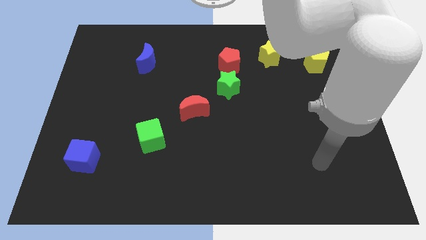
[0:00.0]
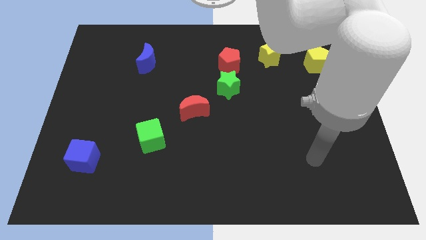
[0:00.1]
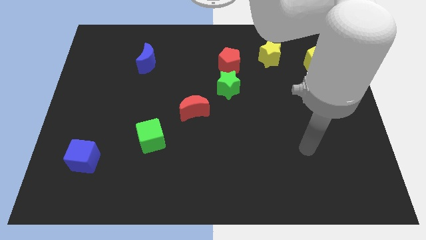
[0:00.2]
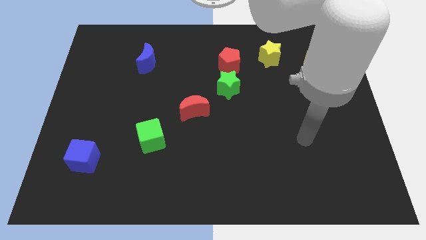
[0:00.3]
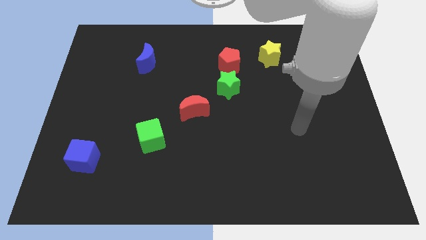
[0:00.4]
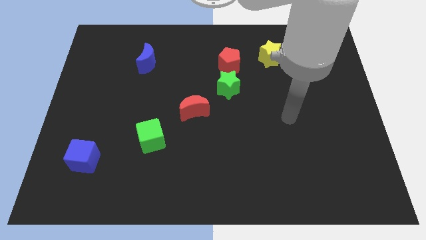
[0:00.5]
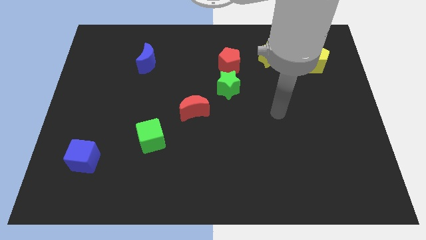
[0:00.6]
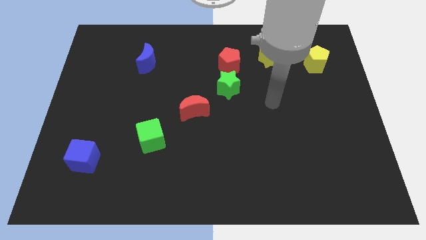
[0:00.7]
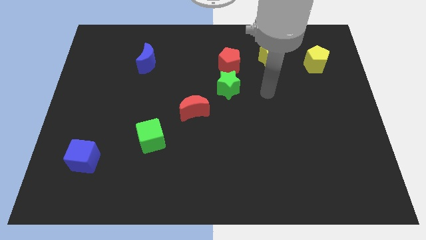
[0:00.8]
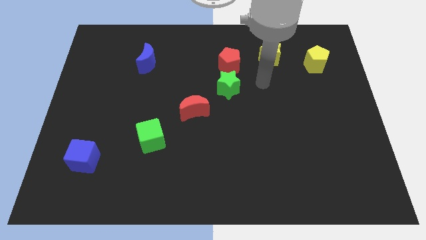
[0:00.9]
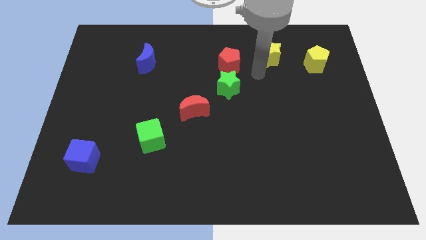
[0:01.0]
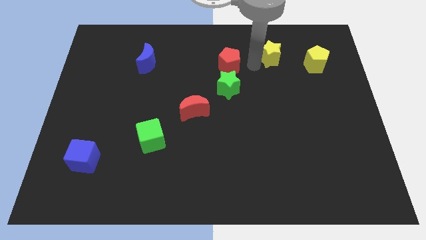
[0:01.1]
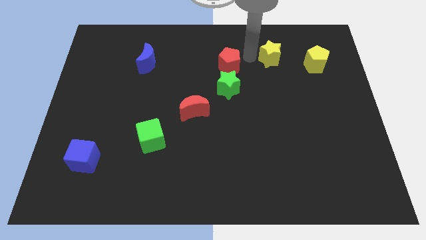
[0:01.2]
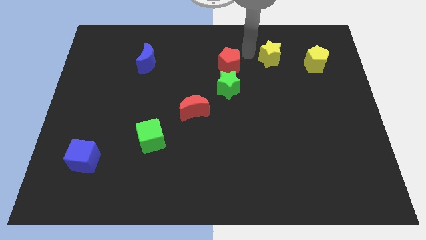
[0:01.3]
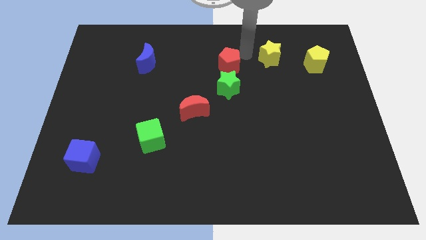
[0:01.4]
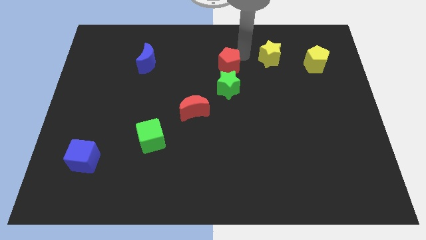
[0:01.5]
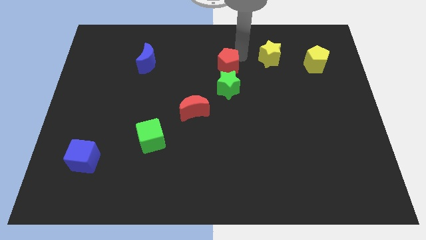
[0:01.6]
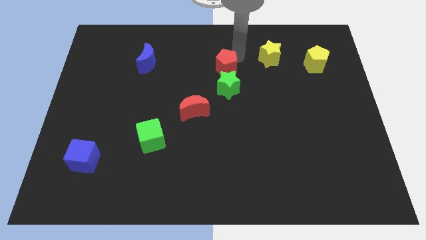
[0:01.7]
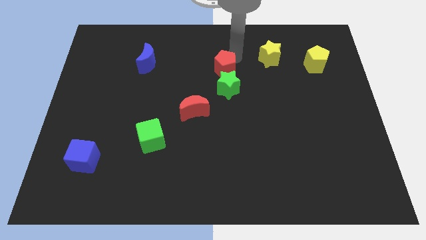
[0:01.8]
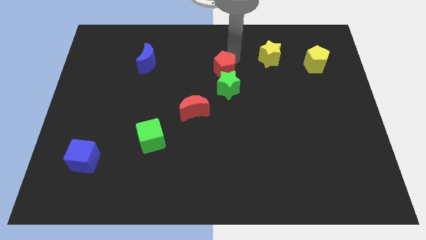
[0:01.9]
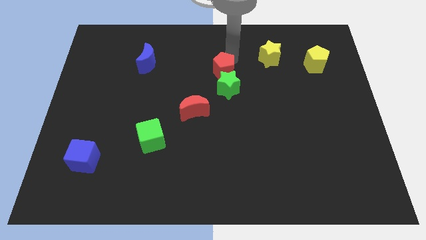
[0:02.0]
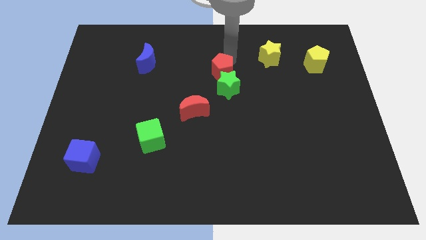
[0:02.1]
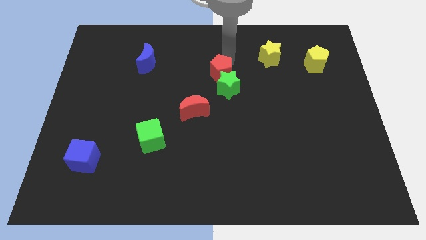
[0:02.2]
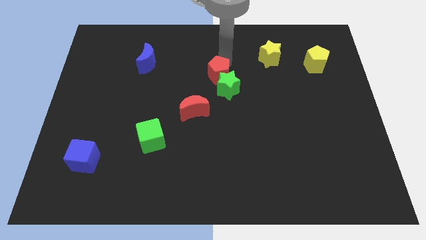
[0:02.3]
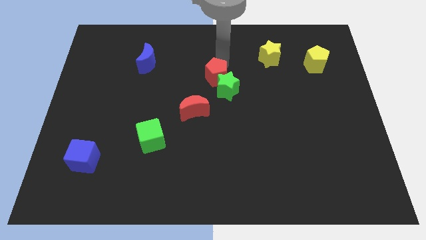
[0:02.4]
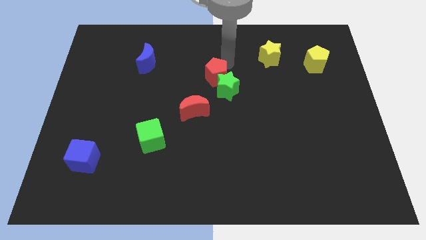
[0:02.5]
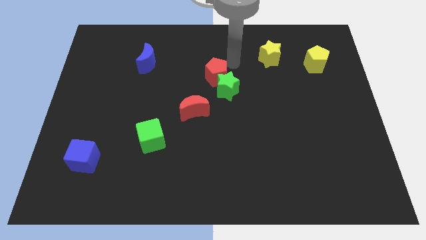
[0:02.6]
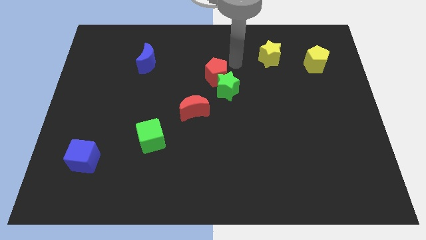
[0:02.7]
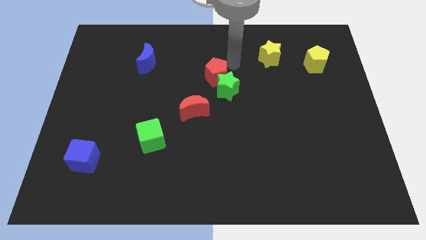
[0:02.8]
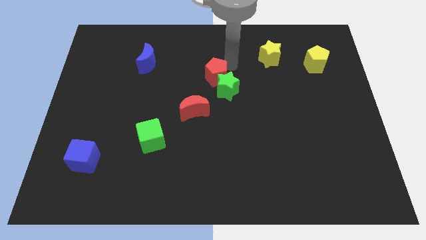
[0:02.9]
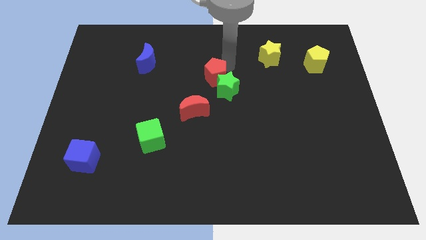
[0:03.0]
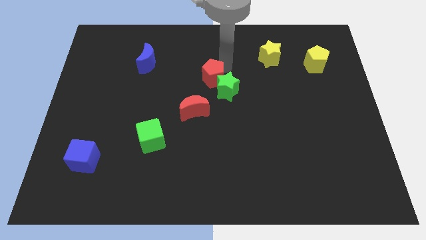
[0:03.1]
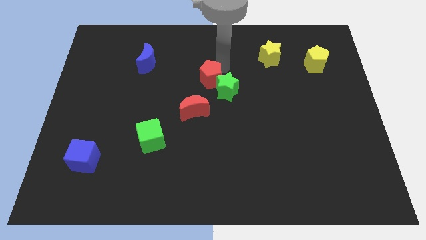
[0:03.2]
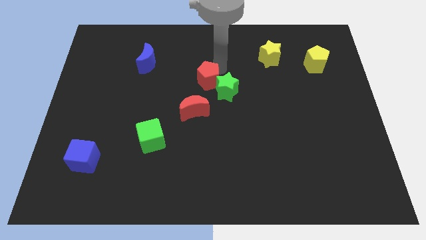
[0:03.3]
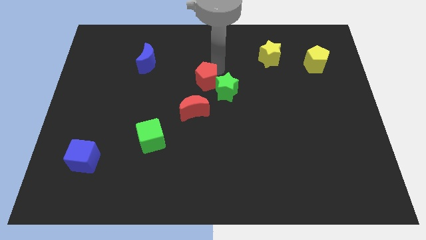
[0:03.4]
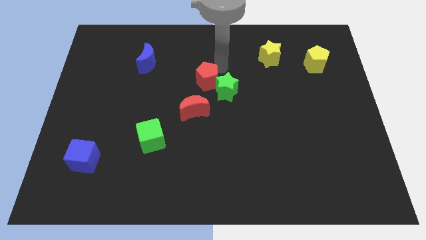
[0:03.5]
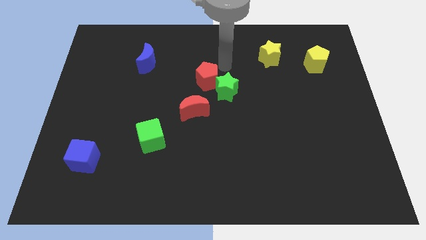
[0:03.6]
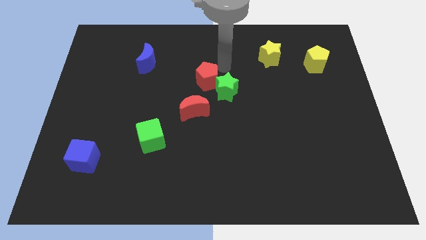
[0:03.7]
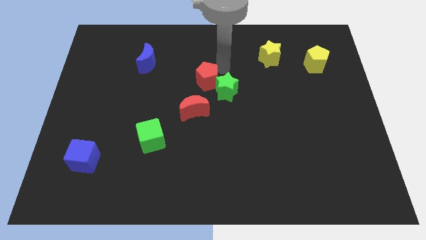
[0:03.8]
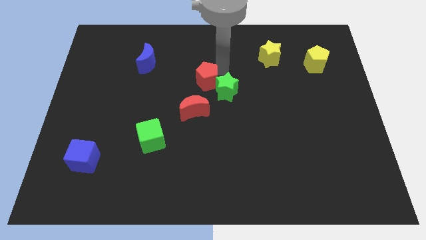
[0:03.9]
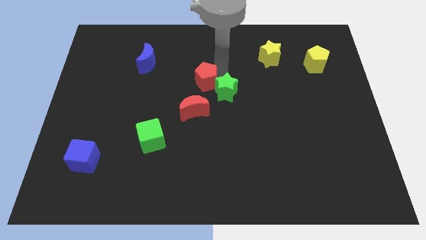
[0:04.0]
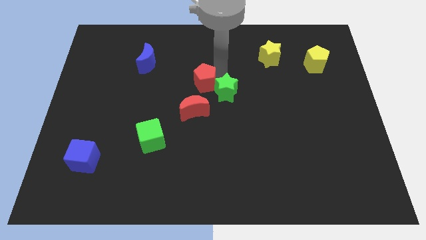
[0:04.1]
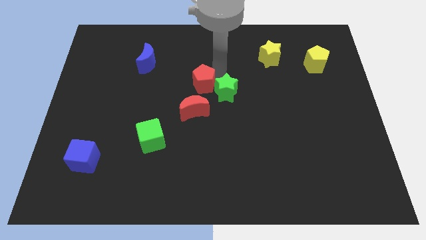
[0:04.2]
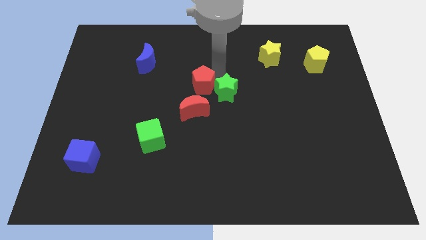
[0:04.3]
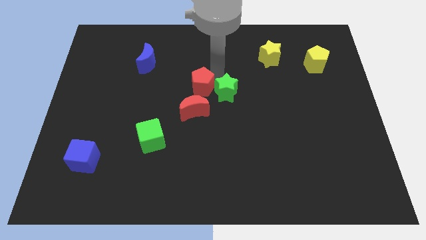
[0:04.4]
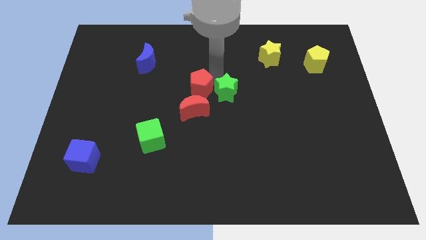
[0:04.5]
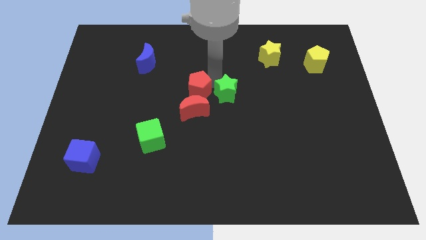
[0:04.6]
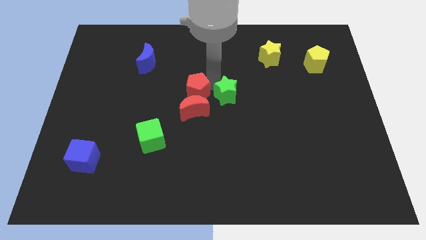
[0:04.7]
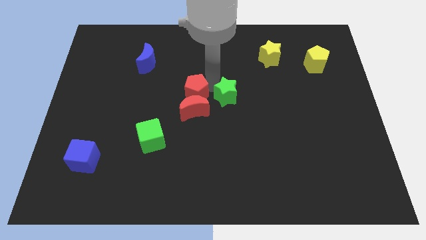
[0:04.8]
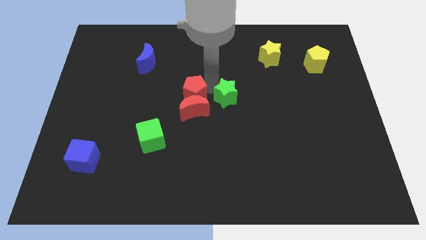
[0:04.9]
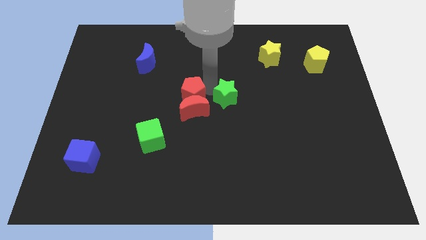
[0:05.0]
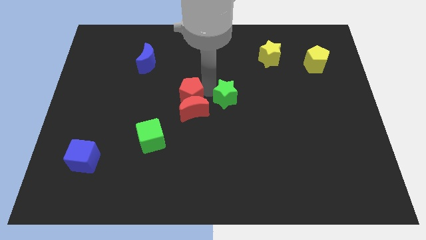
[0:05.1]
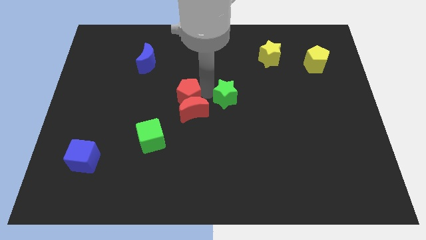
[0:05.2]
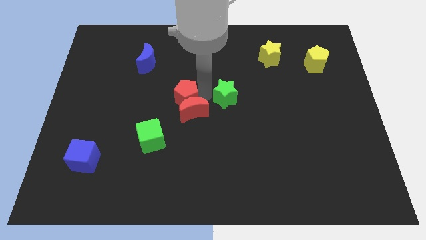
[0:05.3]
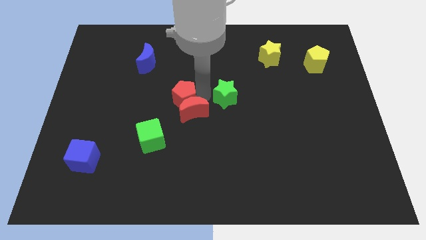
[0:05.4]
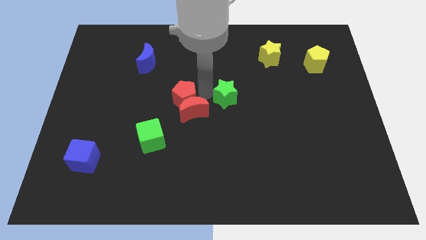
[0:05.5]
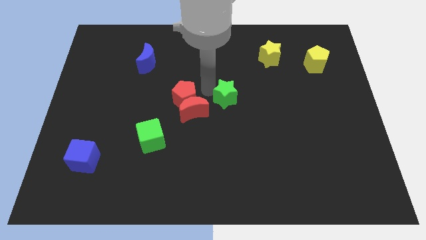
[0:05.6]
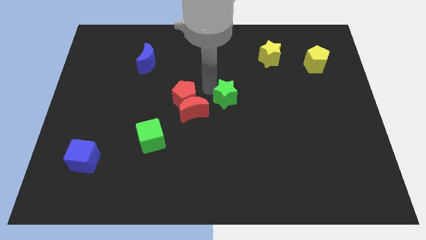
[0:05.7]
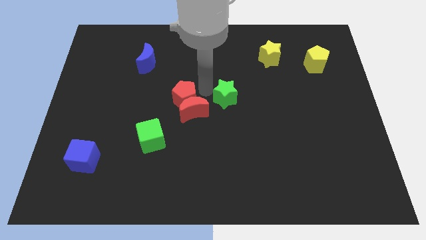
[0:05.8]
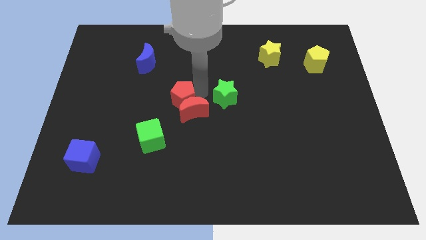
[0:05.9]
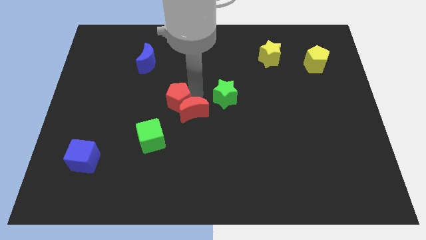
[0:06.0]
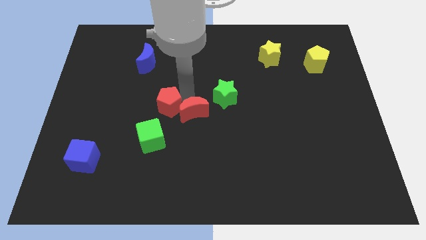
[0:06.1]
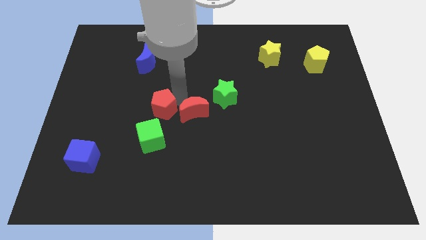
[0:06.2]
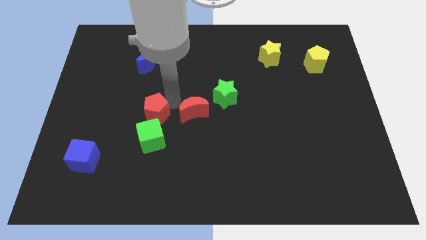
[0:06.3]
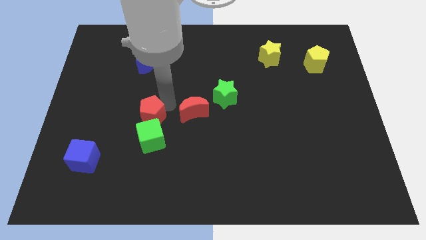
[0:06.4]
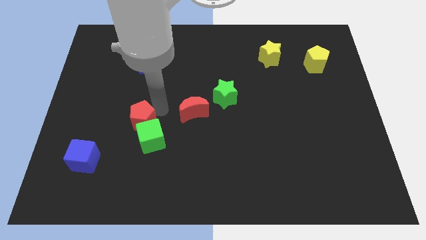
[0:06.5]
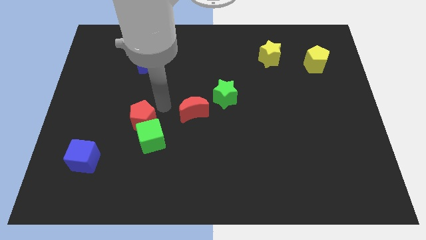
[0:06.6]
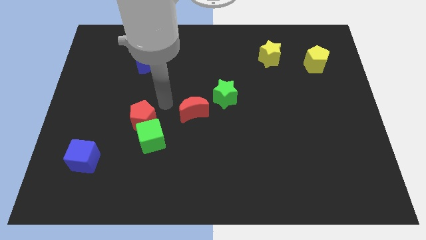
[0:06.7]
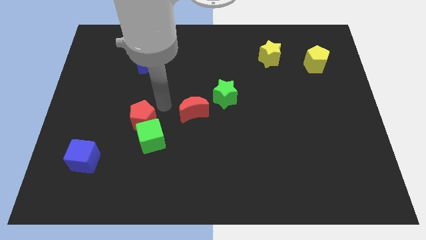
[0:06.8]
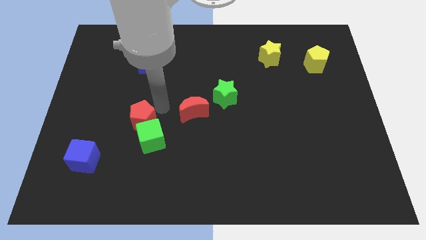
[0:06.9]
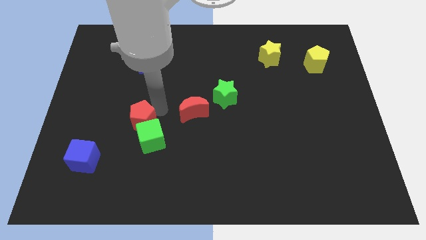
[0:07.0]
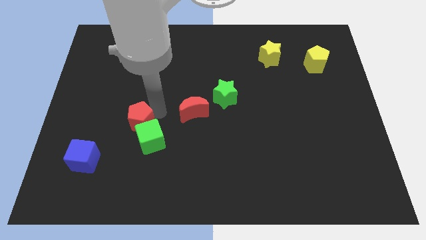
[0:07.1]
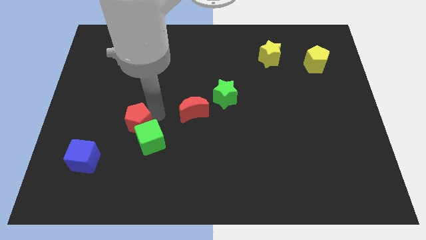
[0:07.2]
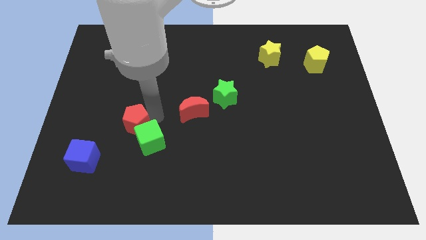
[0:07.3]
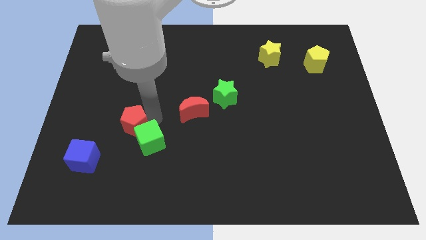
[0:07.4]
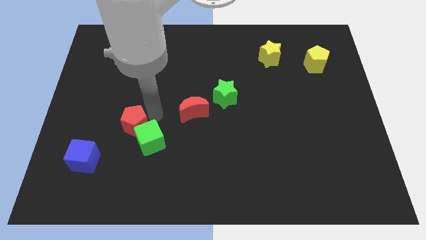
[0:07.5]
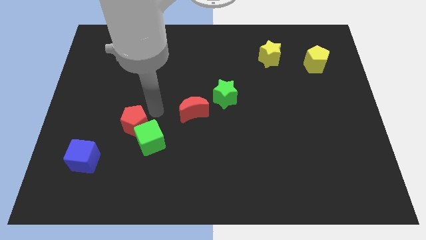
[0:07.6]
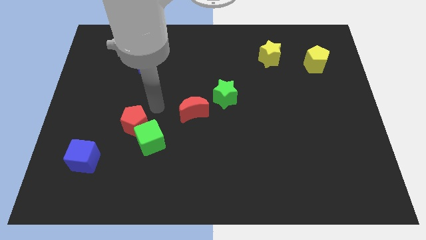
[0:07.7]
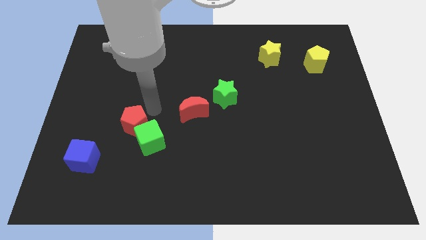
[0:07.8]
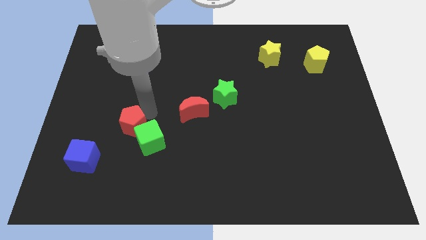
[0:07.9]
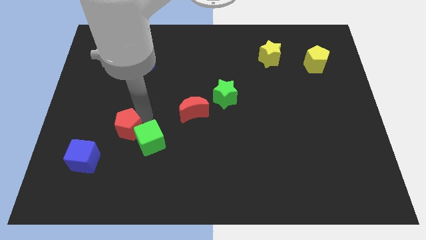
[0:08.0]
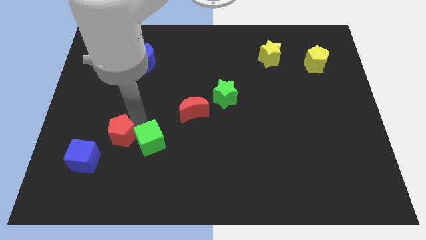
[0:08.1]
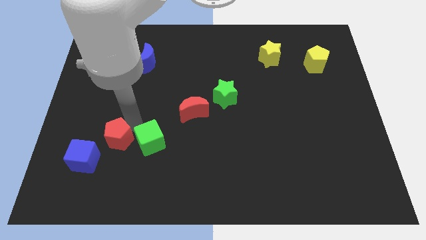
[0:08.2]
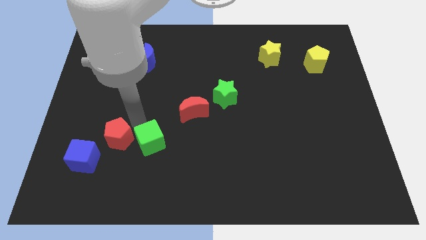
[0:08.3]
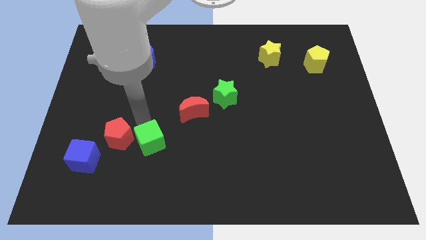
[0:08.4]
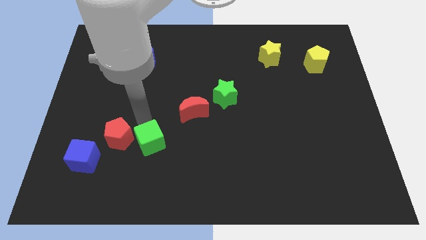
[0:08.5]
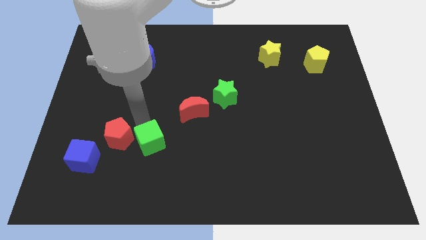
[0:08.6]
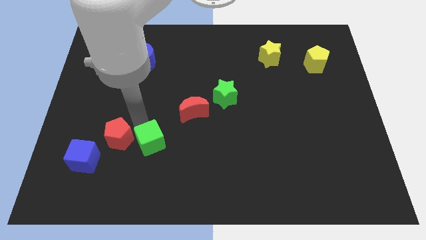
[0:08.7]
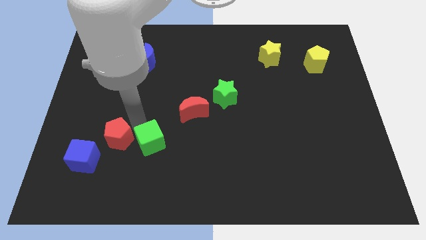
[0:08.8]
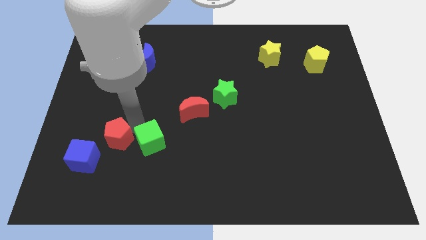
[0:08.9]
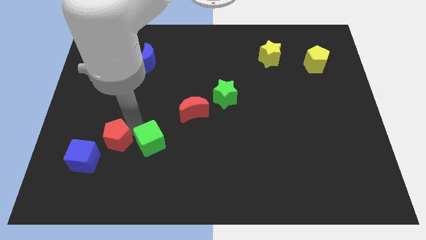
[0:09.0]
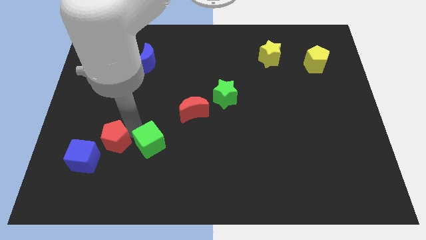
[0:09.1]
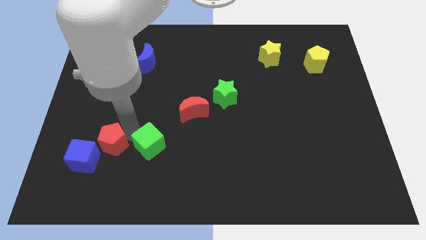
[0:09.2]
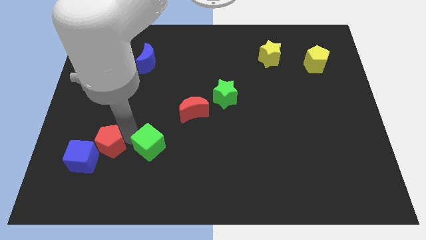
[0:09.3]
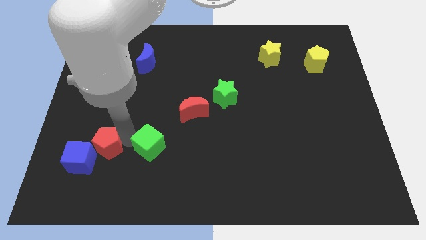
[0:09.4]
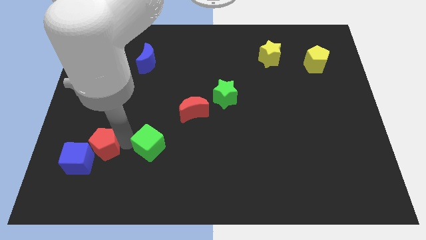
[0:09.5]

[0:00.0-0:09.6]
push the red pentagon to the blue cube
